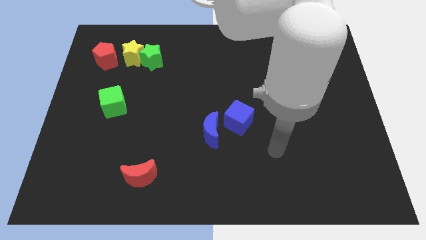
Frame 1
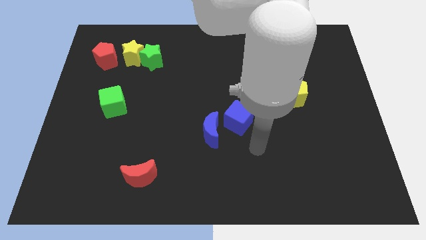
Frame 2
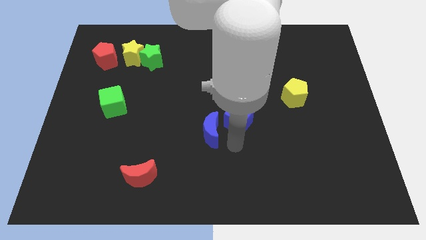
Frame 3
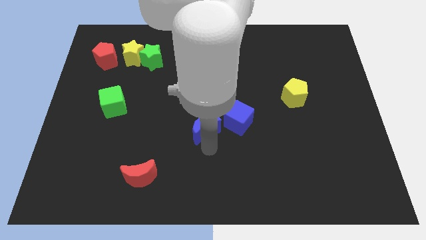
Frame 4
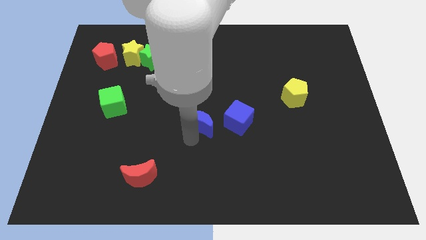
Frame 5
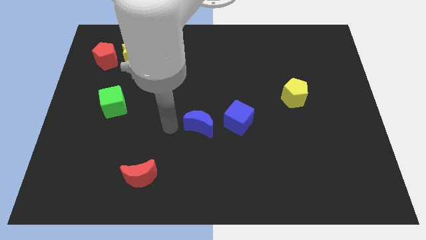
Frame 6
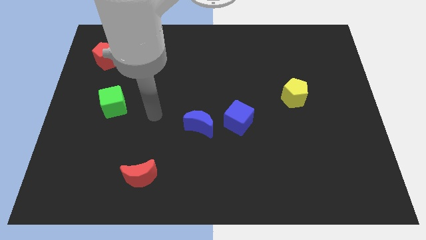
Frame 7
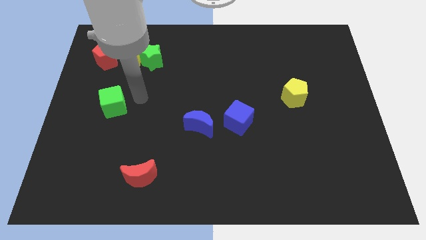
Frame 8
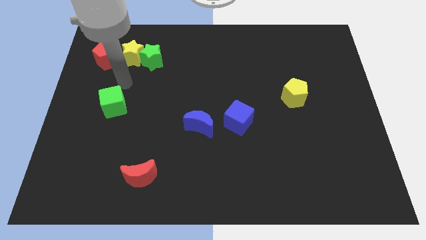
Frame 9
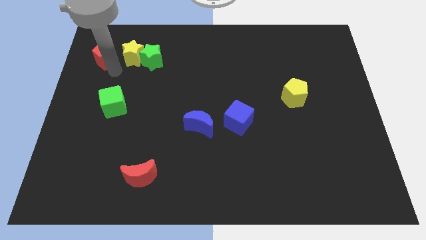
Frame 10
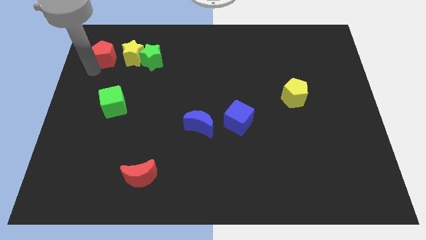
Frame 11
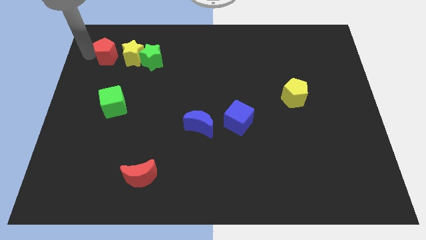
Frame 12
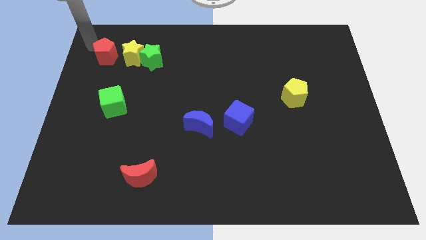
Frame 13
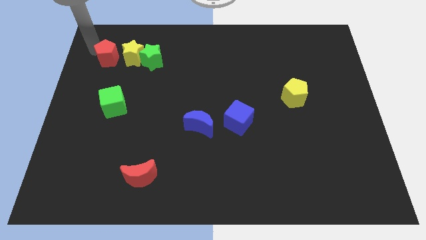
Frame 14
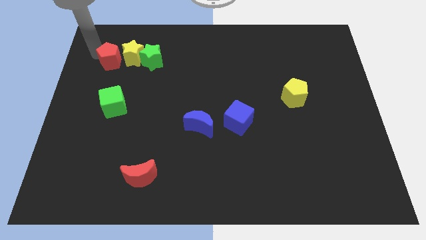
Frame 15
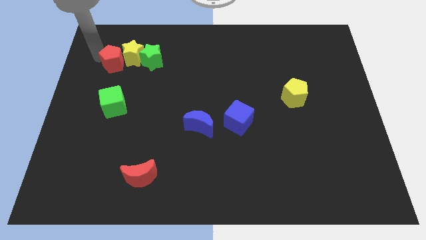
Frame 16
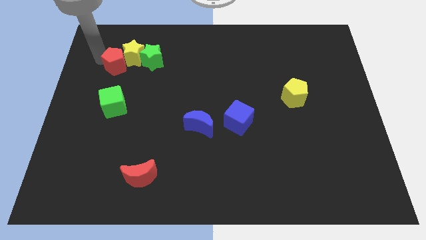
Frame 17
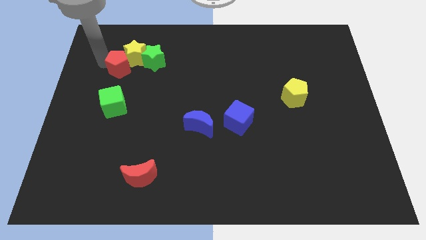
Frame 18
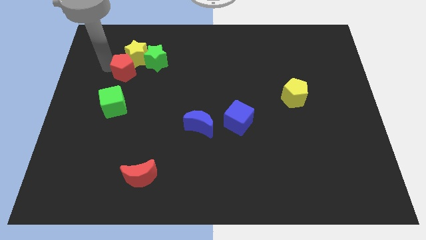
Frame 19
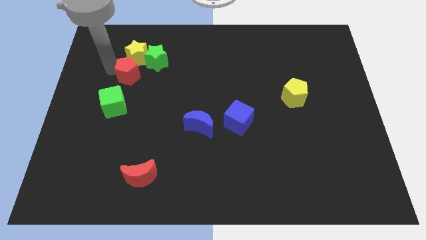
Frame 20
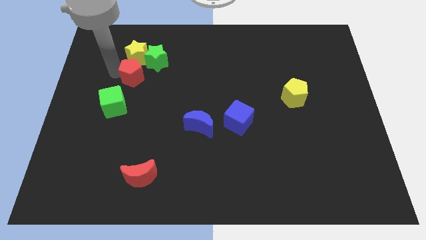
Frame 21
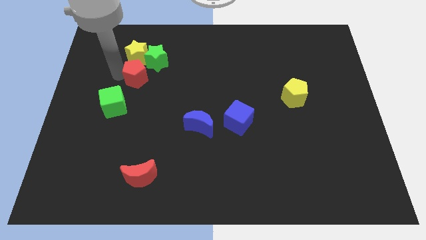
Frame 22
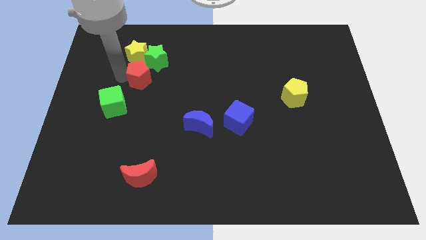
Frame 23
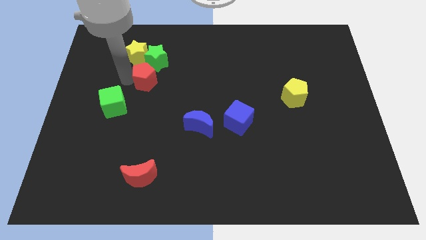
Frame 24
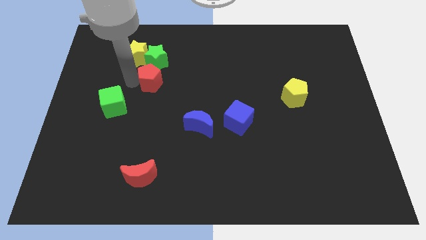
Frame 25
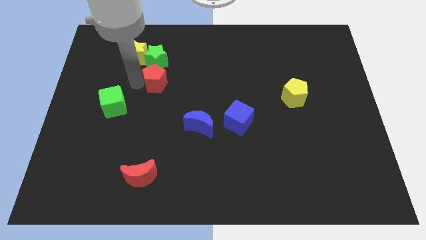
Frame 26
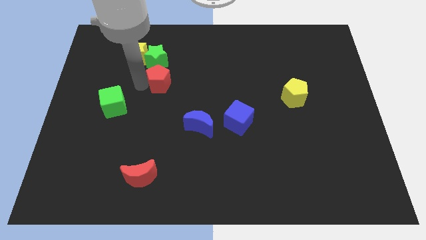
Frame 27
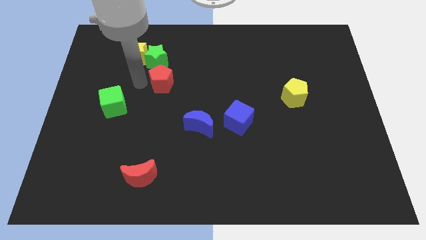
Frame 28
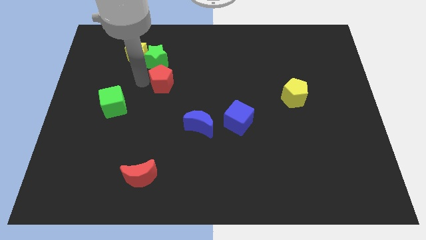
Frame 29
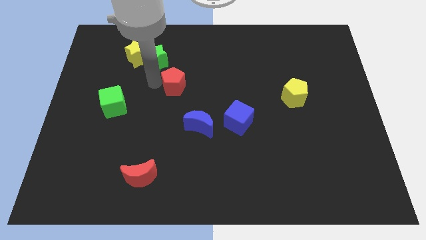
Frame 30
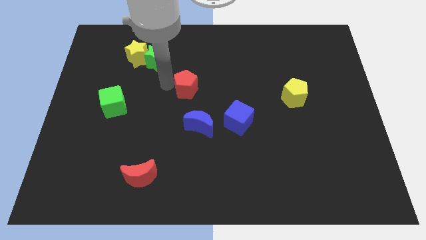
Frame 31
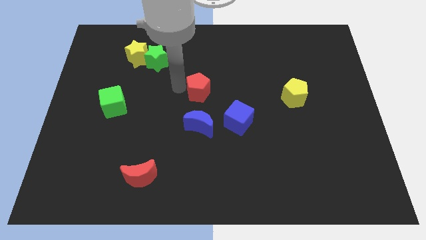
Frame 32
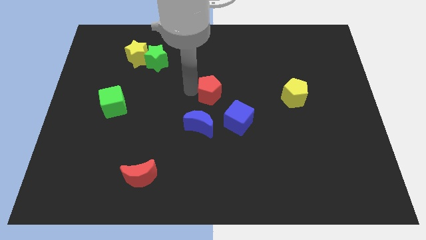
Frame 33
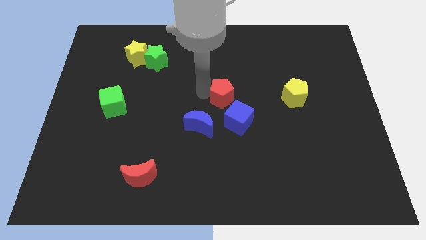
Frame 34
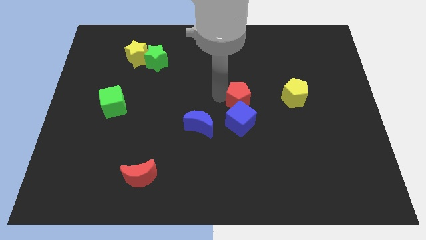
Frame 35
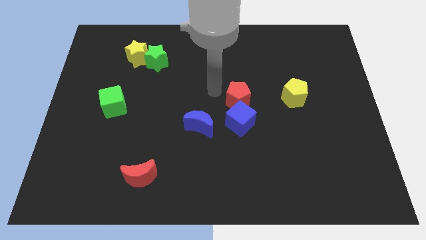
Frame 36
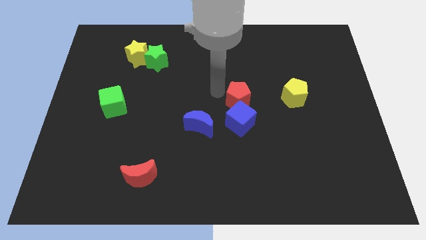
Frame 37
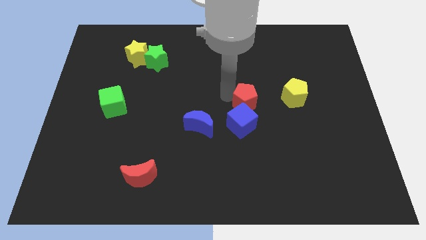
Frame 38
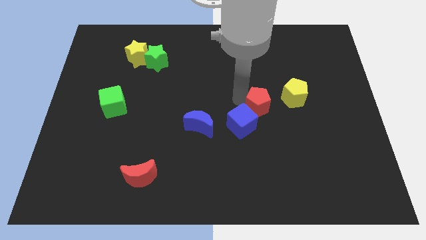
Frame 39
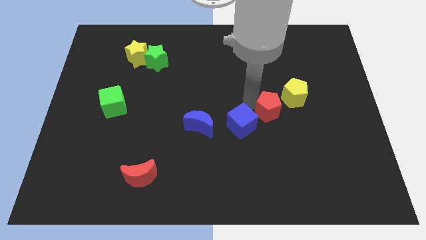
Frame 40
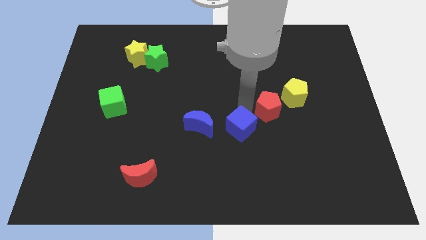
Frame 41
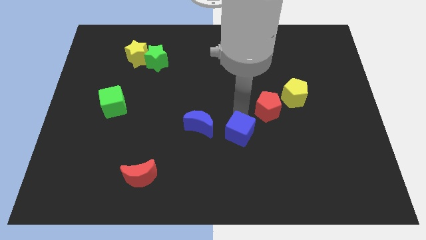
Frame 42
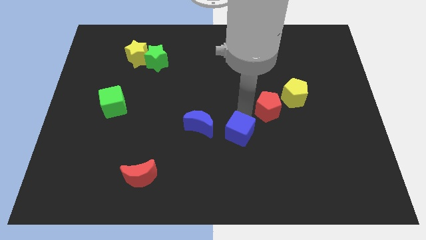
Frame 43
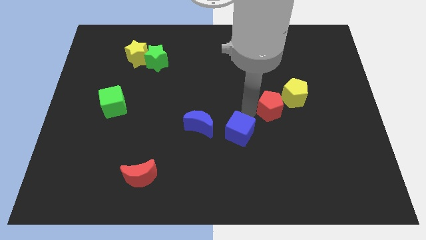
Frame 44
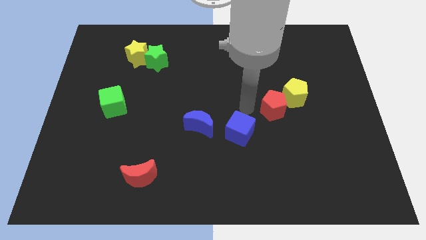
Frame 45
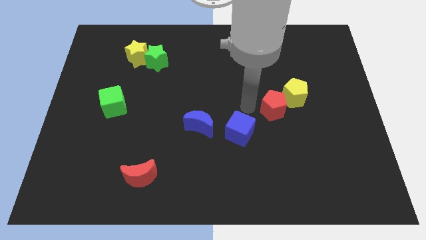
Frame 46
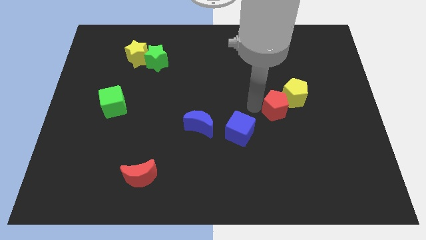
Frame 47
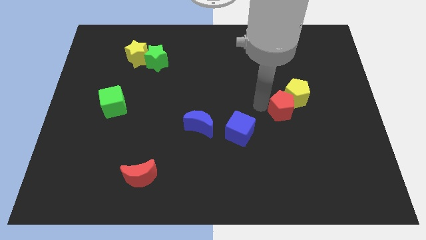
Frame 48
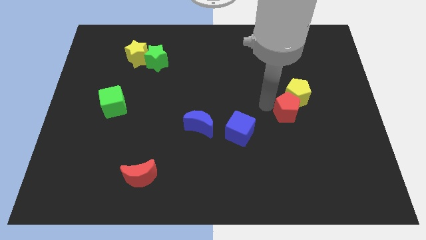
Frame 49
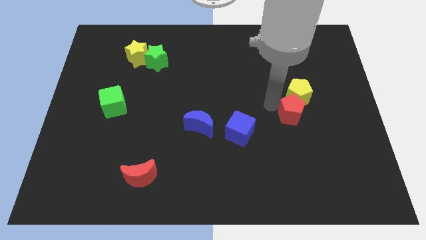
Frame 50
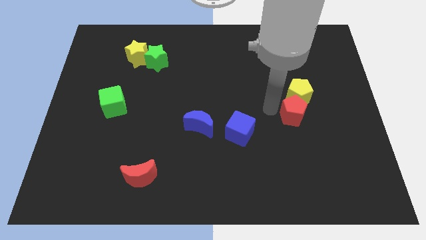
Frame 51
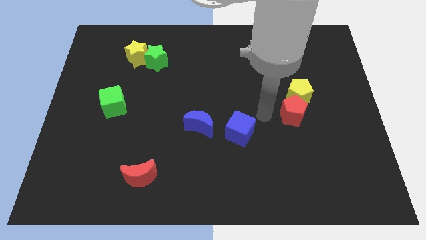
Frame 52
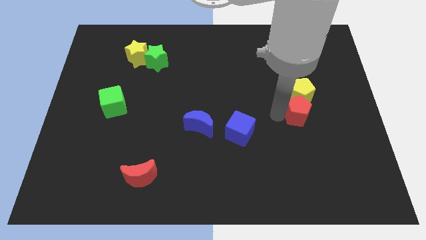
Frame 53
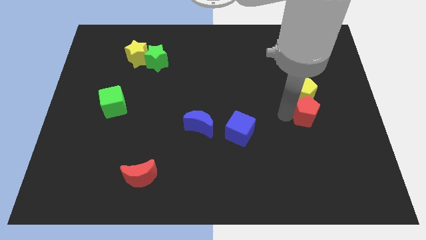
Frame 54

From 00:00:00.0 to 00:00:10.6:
push the red pentagon diagonally down and to the right of the yellow pentagon

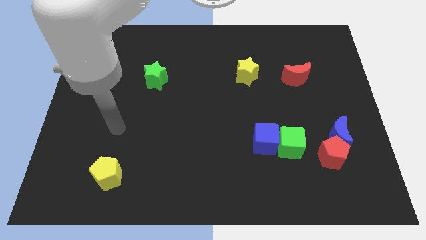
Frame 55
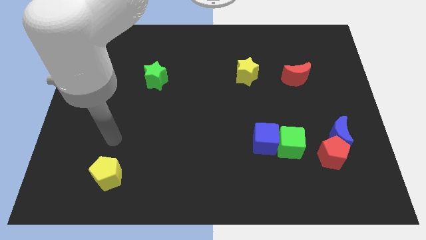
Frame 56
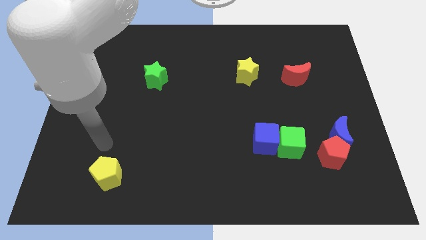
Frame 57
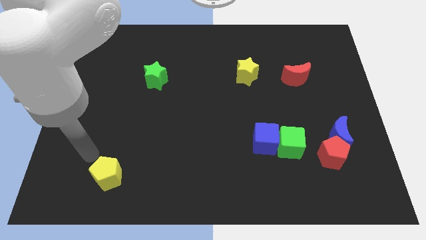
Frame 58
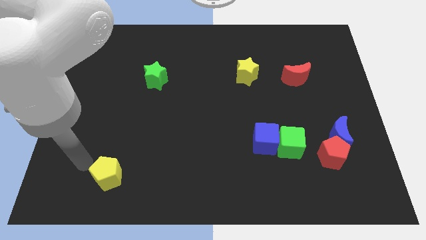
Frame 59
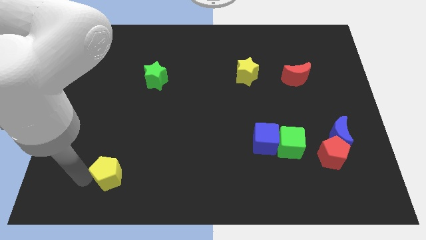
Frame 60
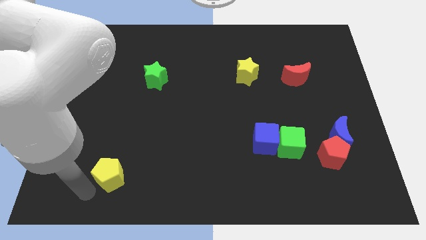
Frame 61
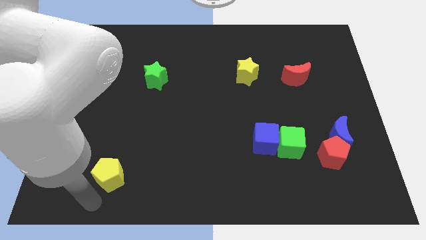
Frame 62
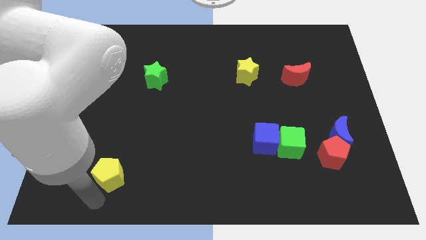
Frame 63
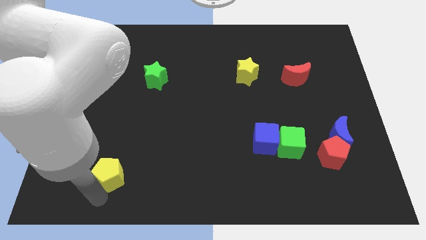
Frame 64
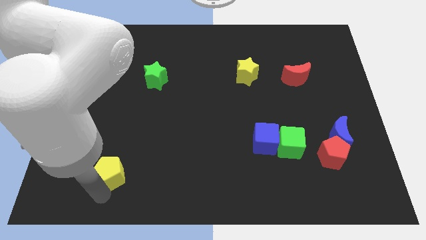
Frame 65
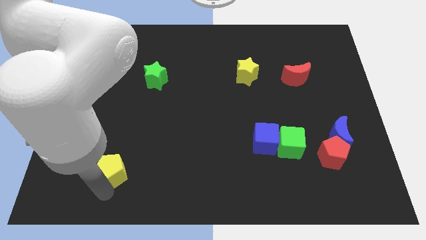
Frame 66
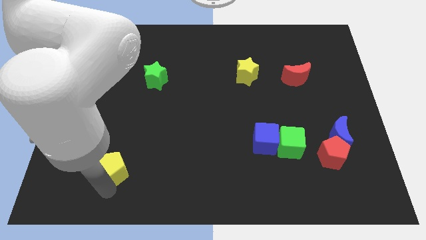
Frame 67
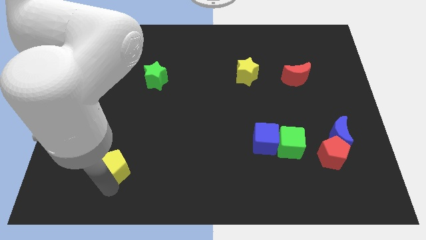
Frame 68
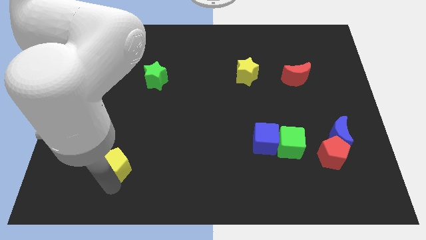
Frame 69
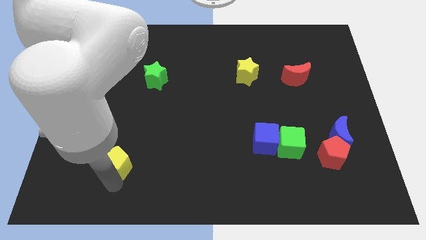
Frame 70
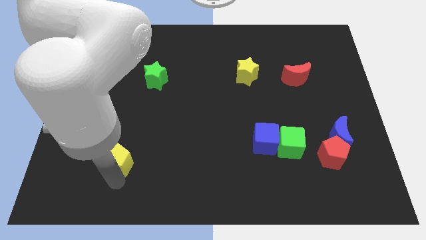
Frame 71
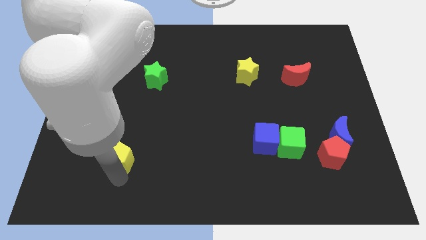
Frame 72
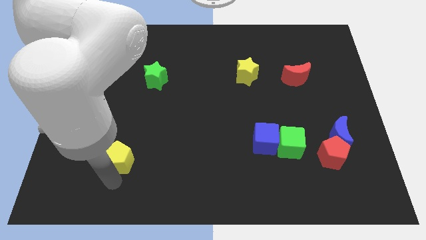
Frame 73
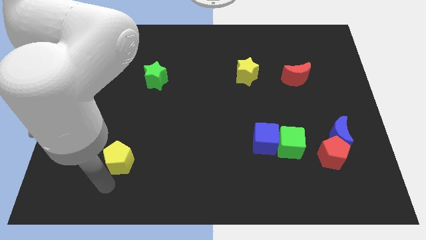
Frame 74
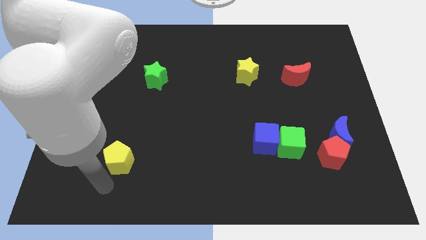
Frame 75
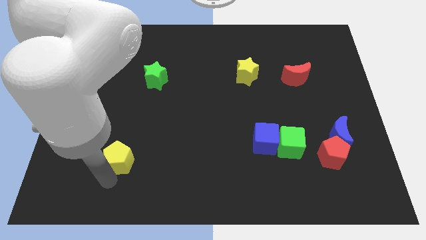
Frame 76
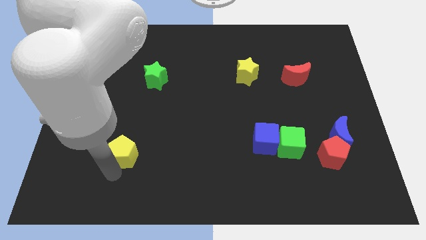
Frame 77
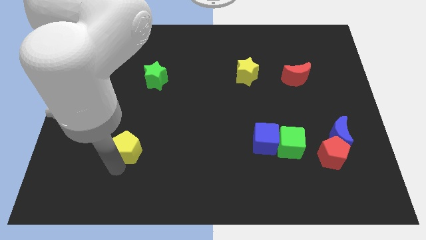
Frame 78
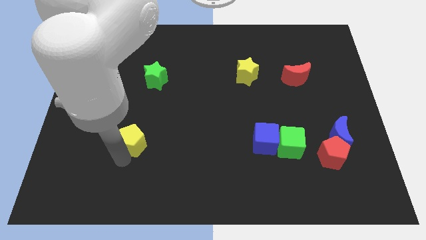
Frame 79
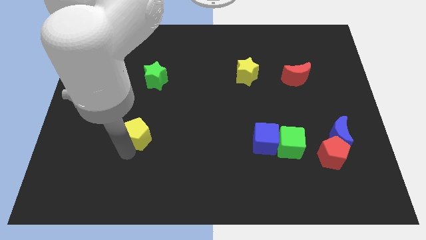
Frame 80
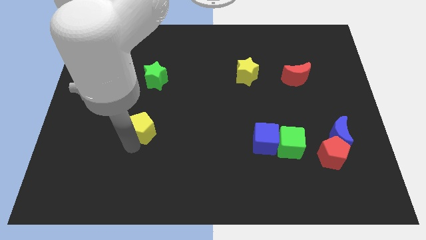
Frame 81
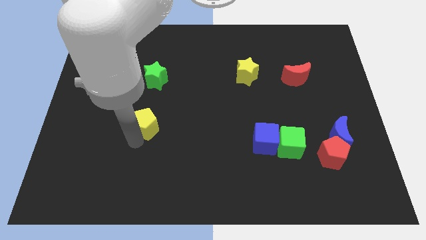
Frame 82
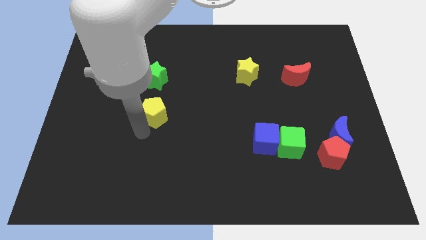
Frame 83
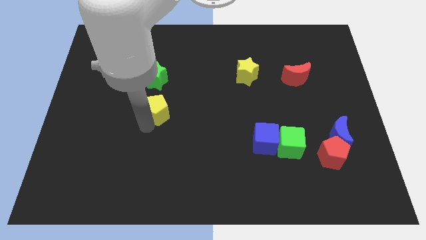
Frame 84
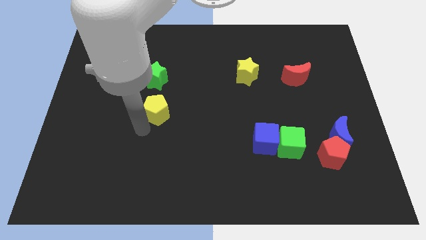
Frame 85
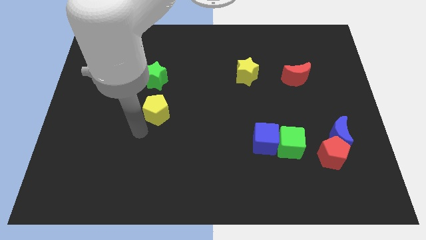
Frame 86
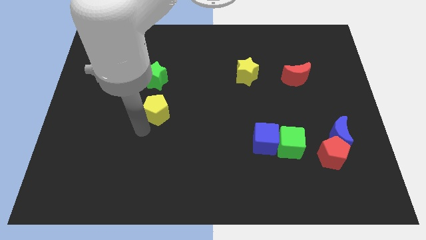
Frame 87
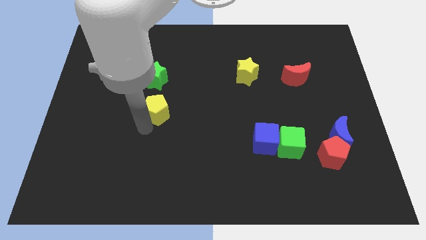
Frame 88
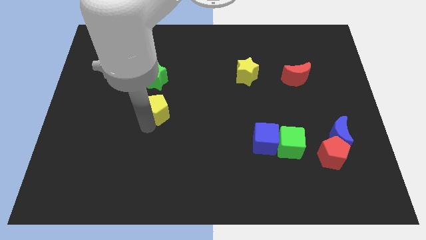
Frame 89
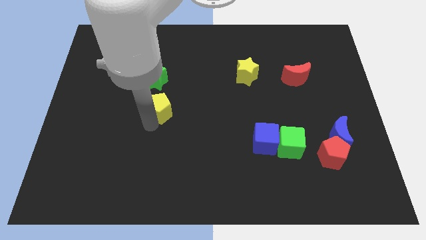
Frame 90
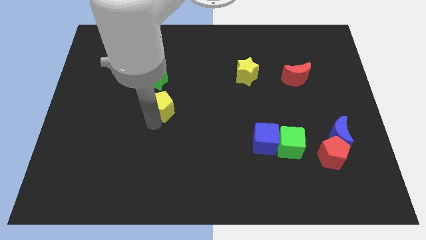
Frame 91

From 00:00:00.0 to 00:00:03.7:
push the yellow pentagon to the bottom right of the green star
